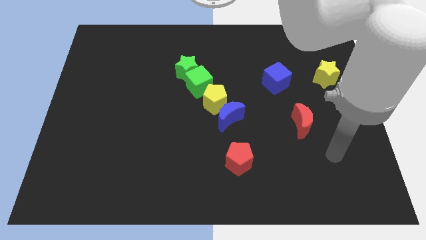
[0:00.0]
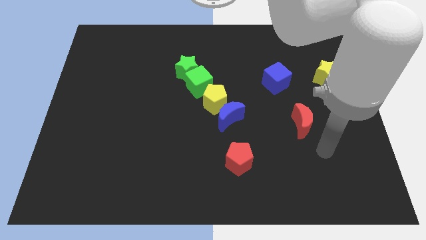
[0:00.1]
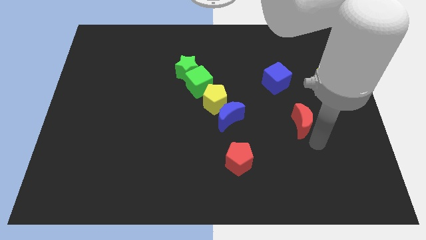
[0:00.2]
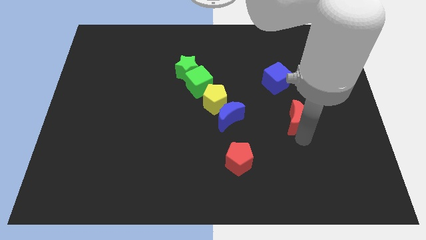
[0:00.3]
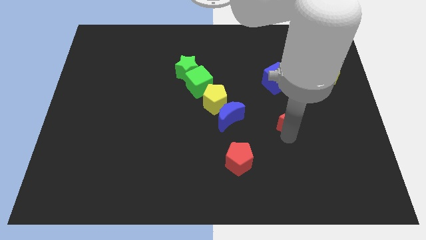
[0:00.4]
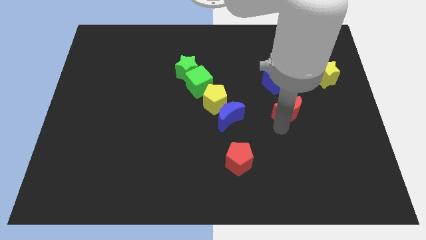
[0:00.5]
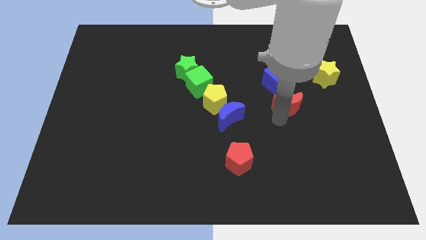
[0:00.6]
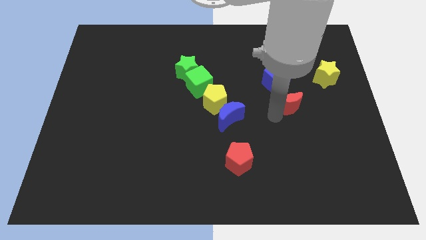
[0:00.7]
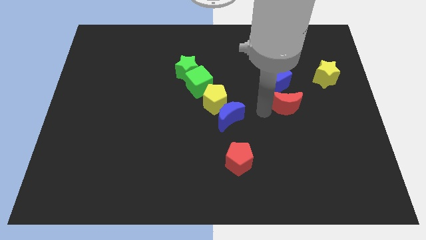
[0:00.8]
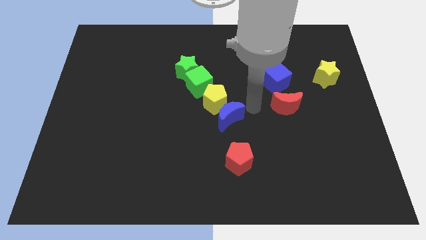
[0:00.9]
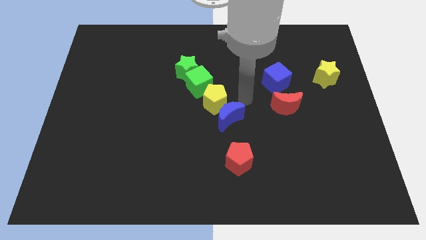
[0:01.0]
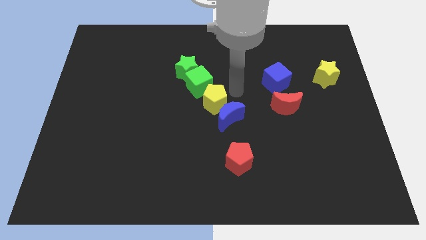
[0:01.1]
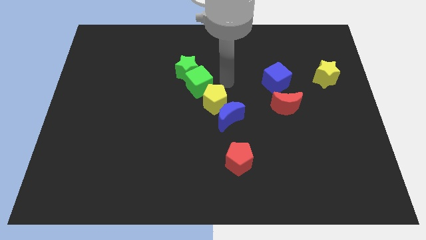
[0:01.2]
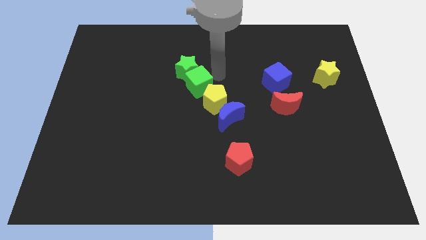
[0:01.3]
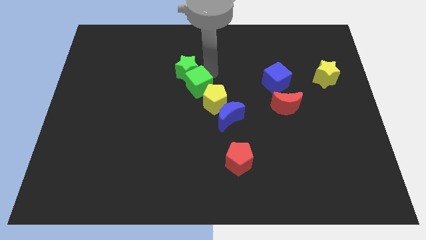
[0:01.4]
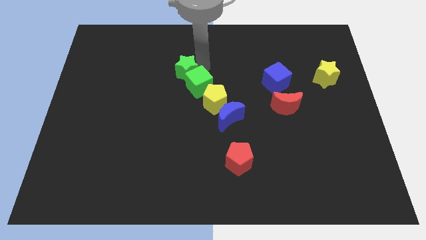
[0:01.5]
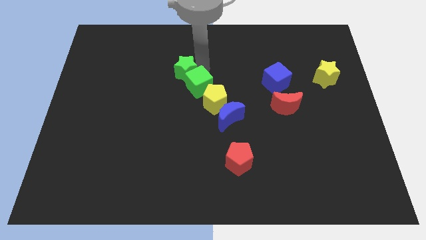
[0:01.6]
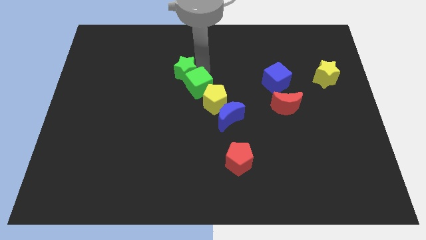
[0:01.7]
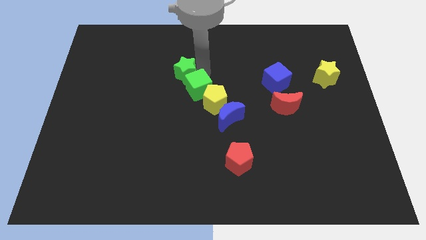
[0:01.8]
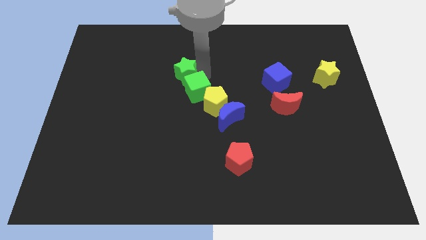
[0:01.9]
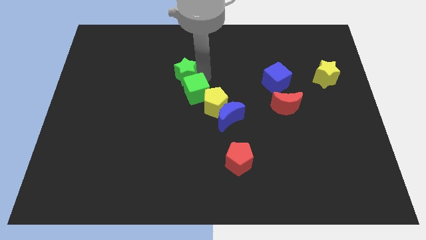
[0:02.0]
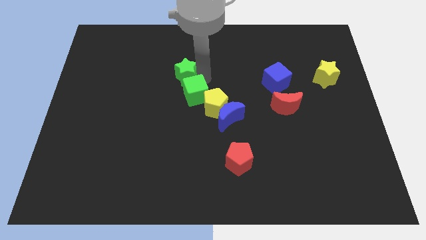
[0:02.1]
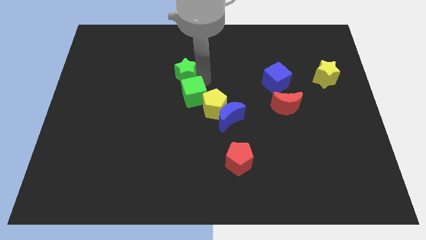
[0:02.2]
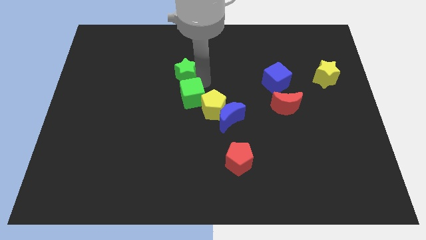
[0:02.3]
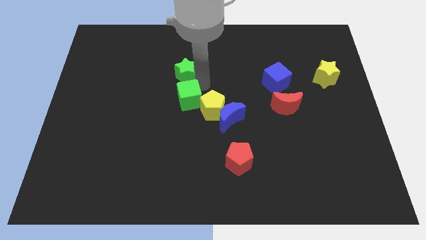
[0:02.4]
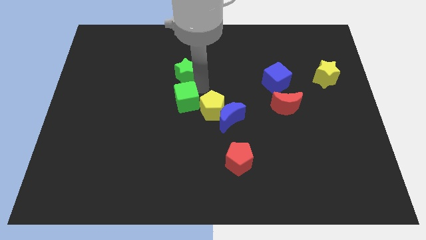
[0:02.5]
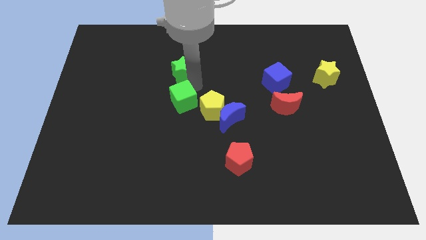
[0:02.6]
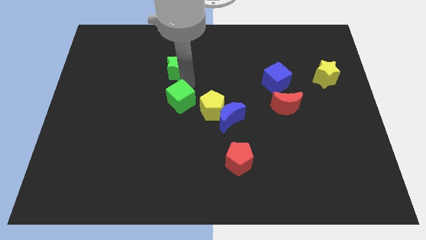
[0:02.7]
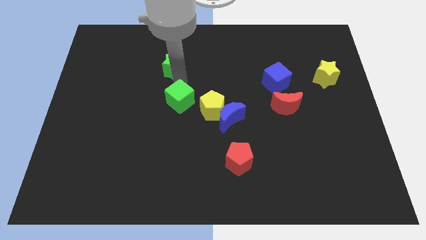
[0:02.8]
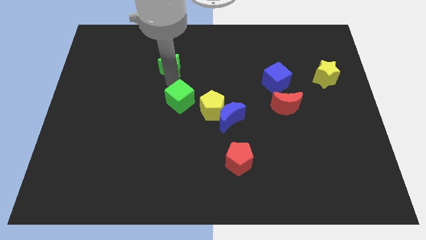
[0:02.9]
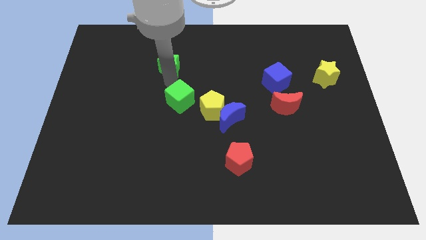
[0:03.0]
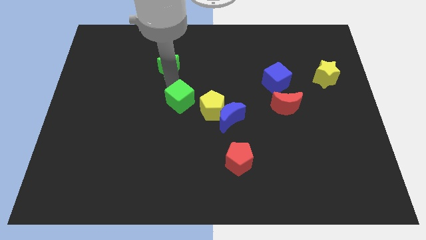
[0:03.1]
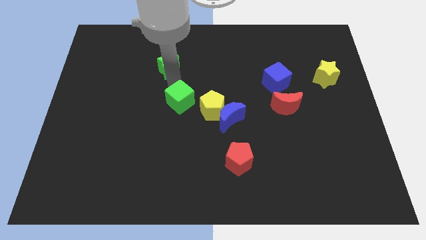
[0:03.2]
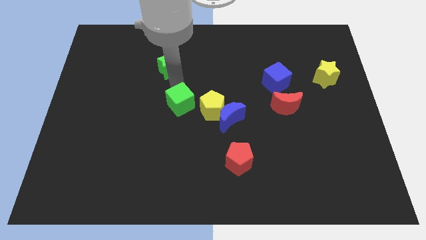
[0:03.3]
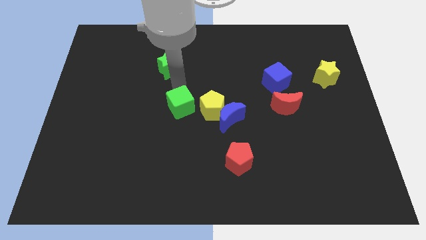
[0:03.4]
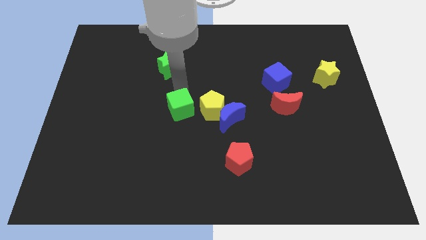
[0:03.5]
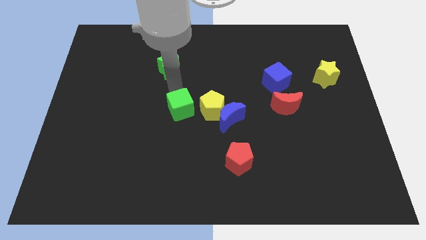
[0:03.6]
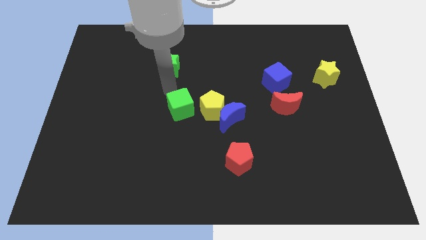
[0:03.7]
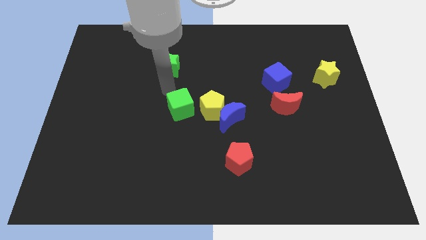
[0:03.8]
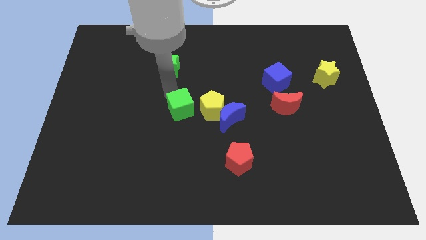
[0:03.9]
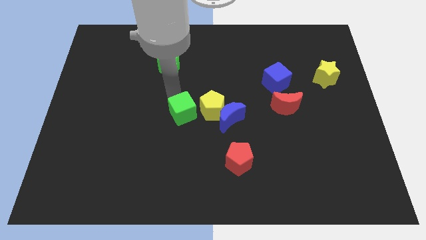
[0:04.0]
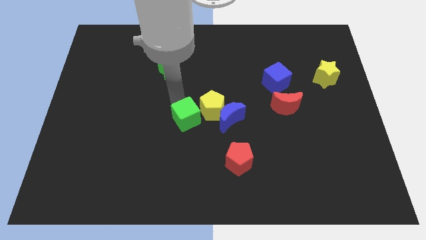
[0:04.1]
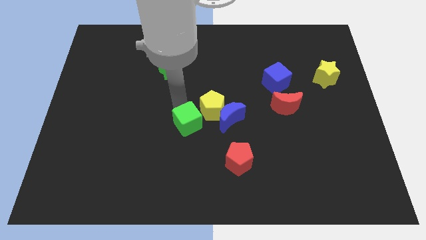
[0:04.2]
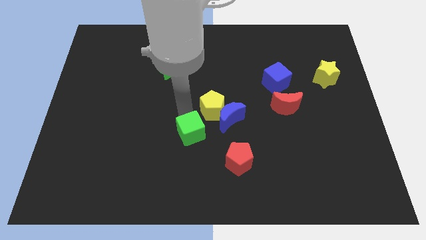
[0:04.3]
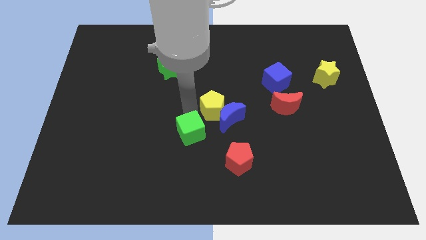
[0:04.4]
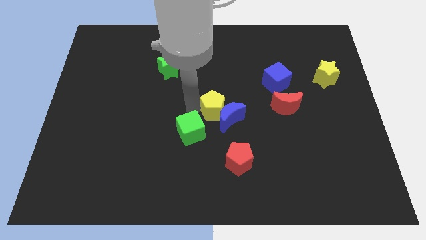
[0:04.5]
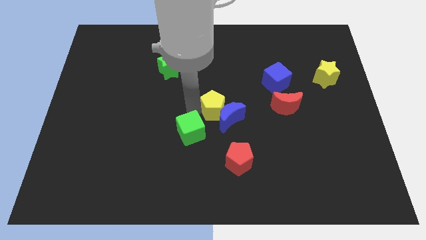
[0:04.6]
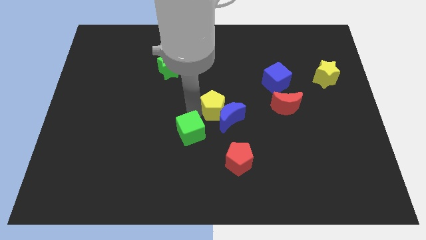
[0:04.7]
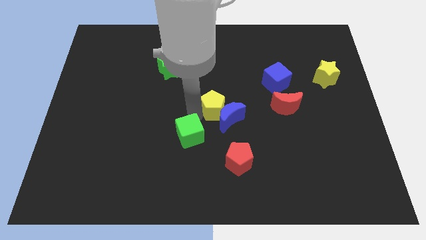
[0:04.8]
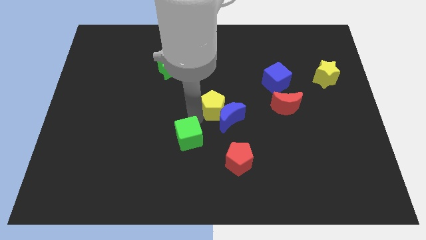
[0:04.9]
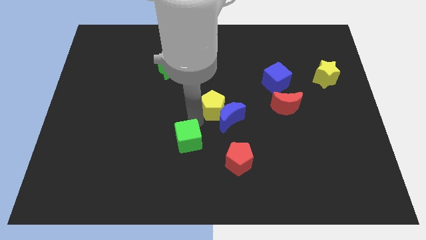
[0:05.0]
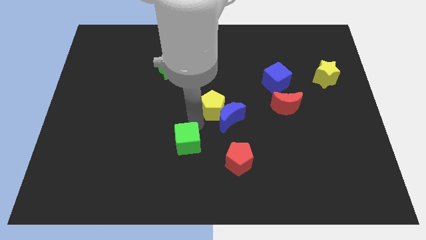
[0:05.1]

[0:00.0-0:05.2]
move the green cube just left of the red pentagon

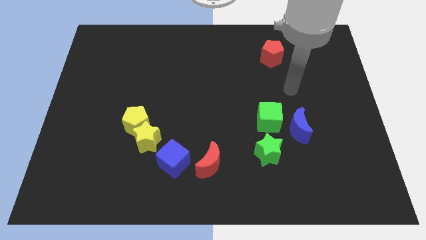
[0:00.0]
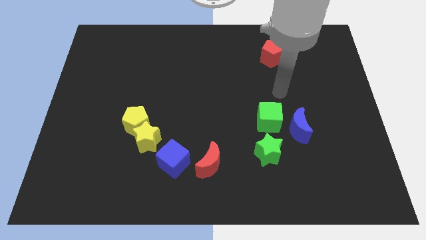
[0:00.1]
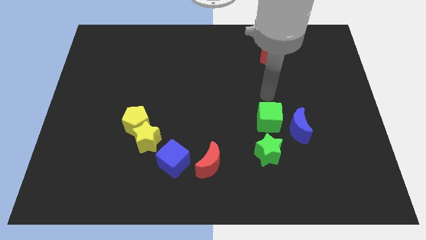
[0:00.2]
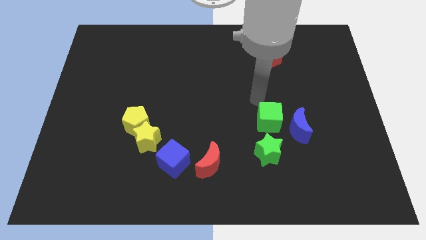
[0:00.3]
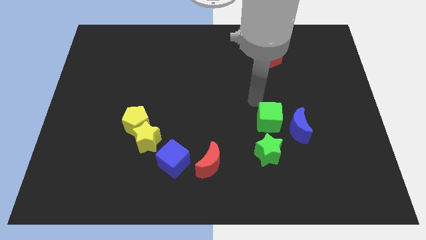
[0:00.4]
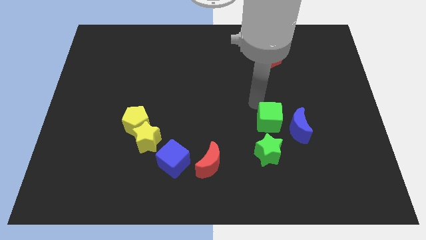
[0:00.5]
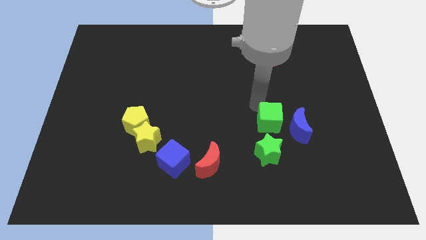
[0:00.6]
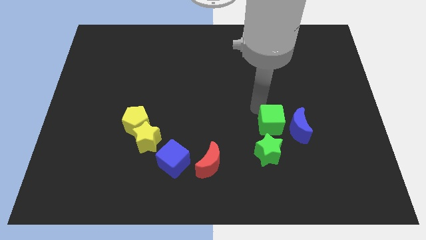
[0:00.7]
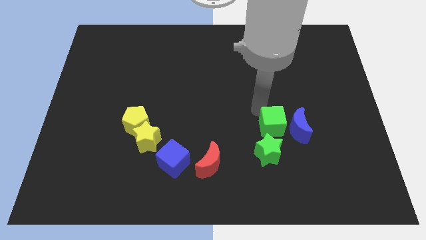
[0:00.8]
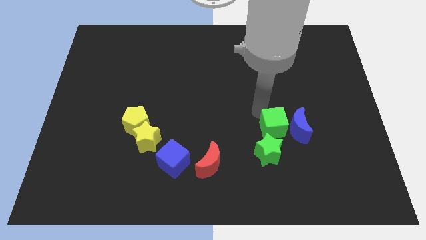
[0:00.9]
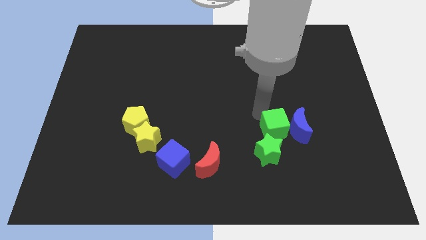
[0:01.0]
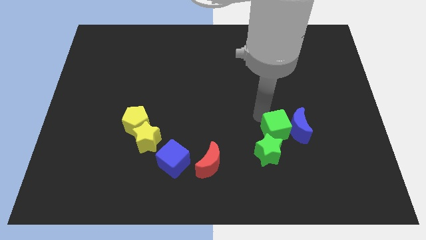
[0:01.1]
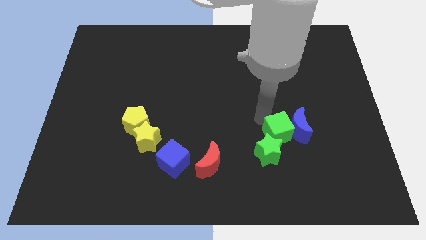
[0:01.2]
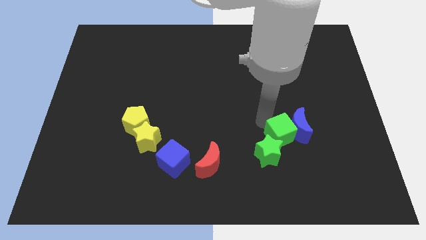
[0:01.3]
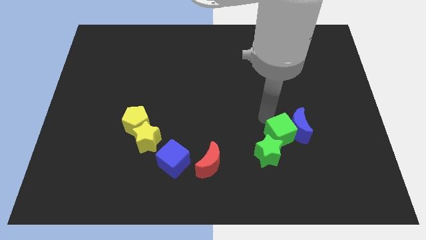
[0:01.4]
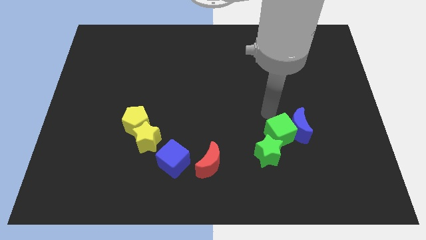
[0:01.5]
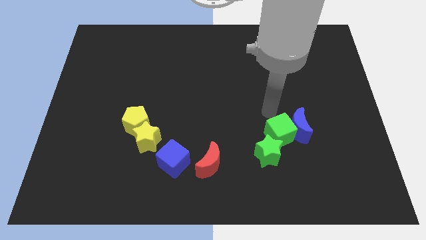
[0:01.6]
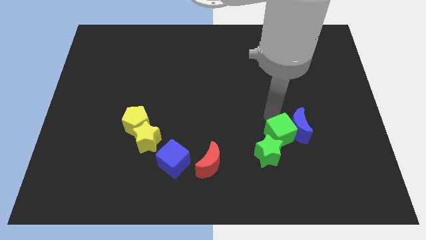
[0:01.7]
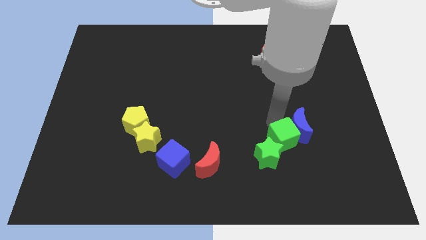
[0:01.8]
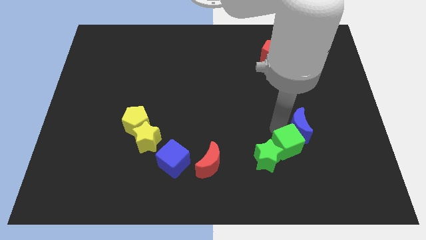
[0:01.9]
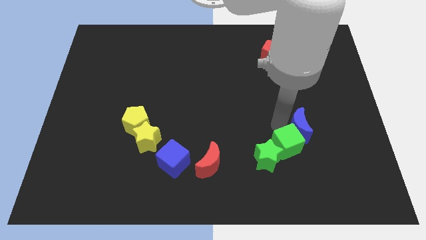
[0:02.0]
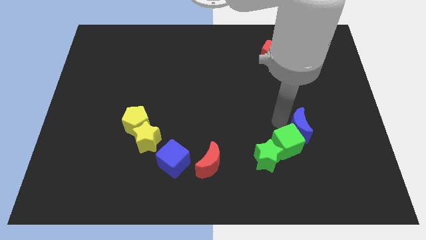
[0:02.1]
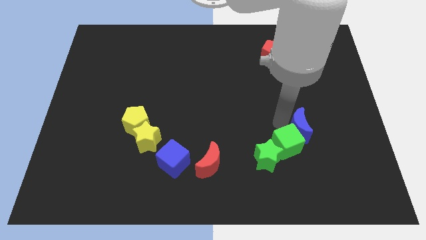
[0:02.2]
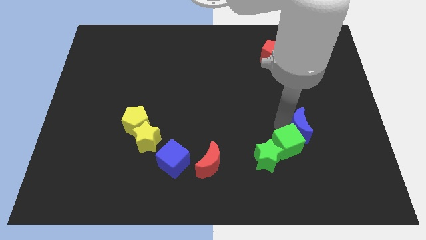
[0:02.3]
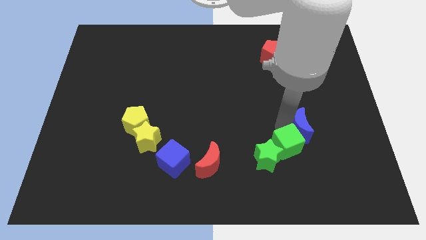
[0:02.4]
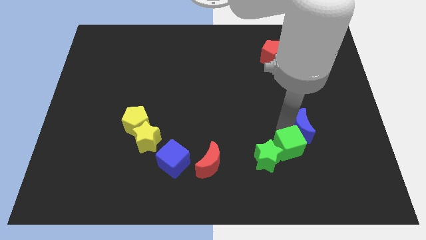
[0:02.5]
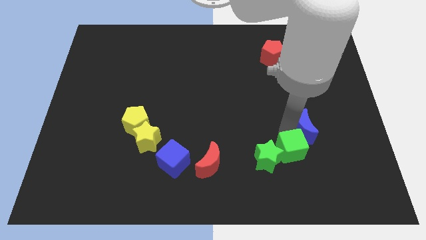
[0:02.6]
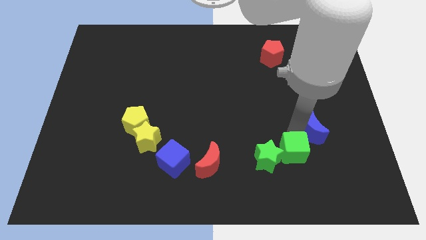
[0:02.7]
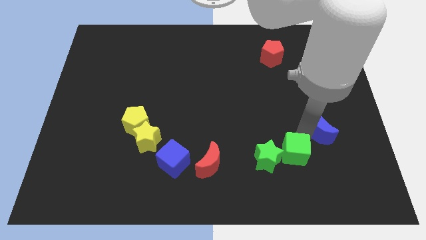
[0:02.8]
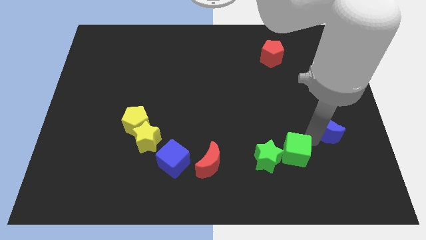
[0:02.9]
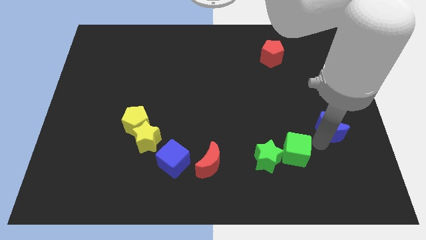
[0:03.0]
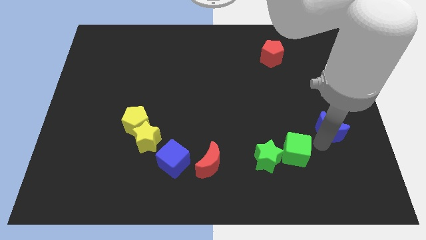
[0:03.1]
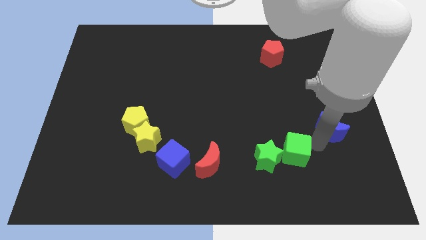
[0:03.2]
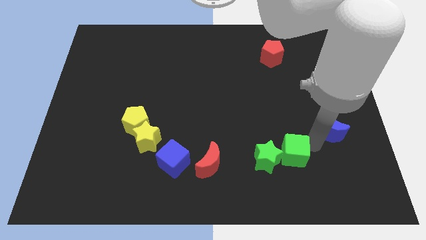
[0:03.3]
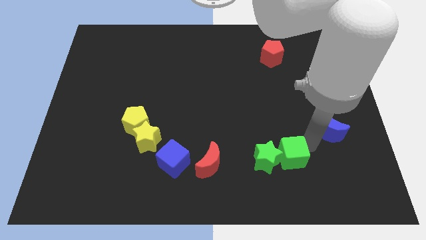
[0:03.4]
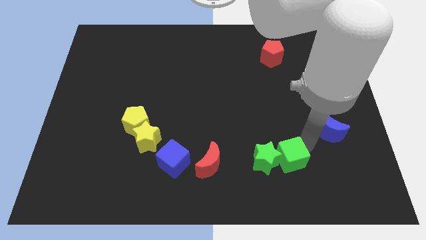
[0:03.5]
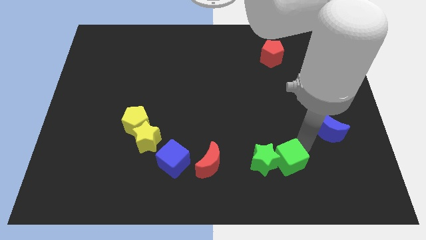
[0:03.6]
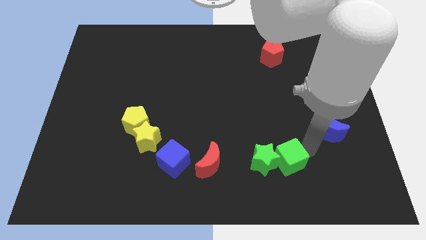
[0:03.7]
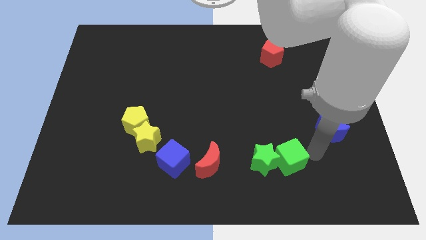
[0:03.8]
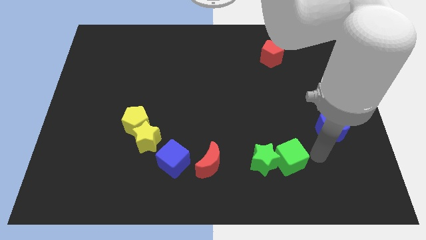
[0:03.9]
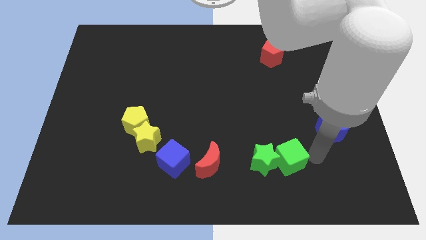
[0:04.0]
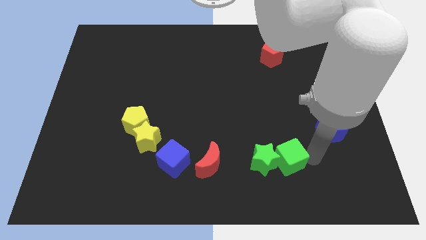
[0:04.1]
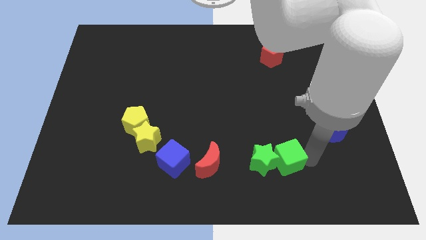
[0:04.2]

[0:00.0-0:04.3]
push the green cube to the right side of the red moon
